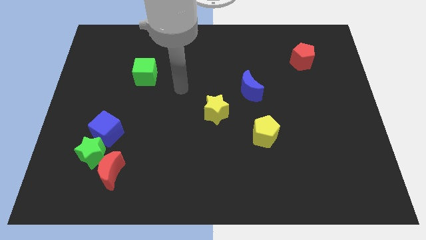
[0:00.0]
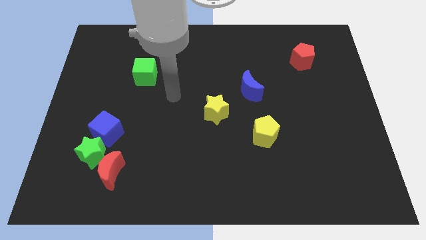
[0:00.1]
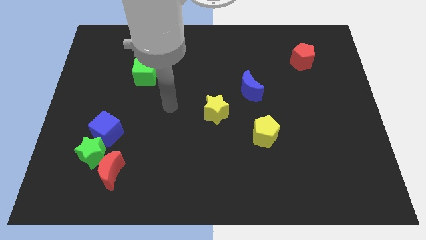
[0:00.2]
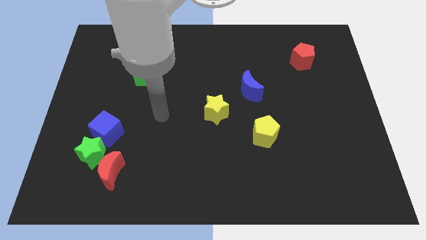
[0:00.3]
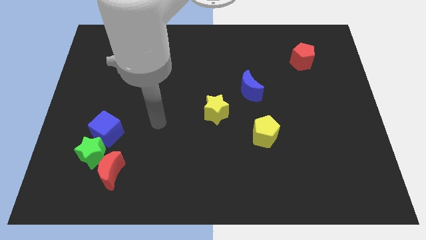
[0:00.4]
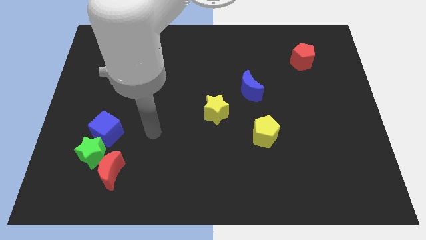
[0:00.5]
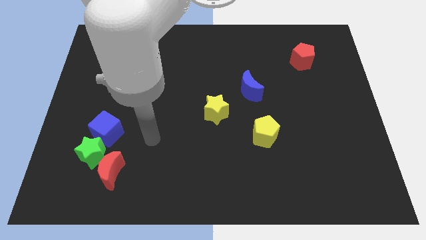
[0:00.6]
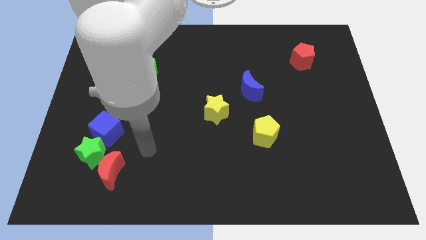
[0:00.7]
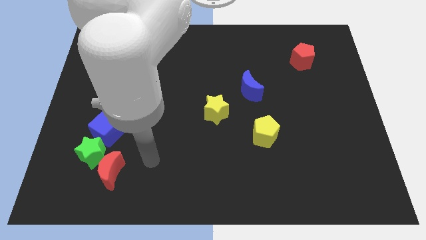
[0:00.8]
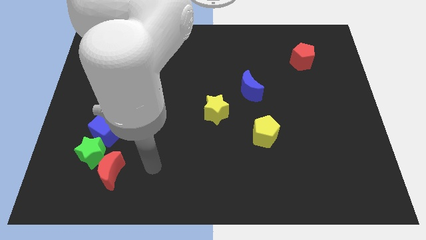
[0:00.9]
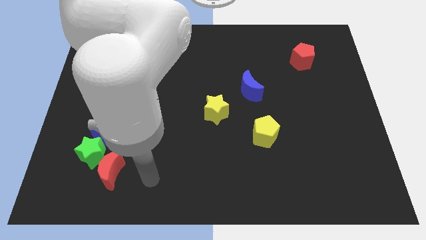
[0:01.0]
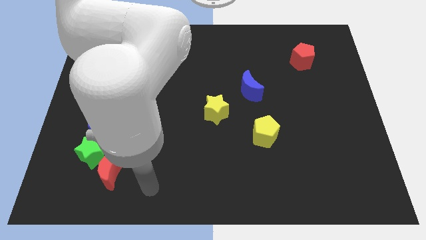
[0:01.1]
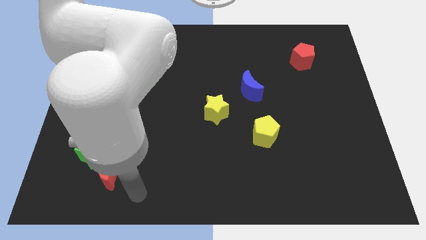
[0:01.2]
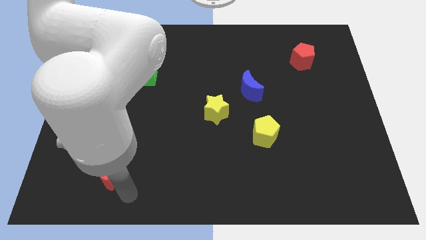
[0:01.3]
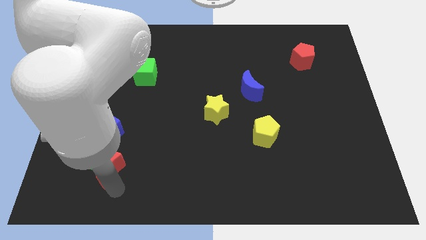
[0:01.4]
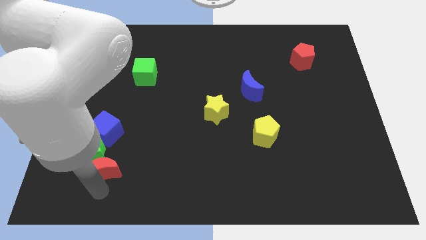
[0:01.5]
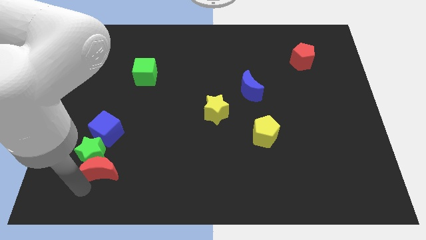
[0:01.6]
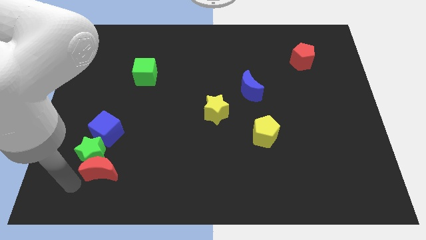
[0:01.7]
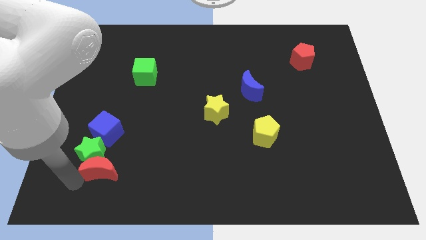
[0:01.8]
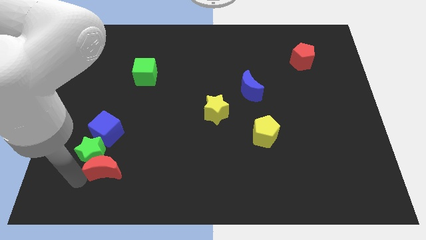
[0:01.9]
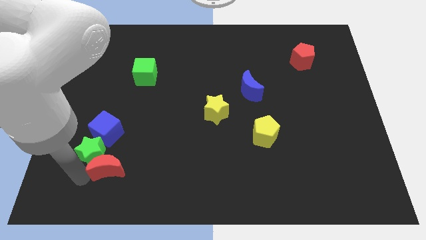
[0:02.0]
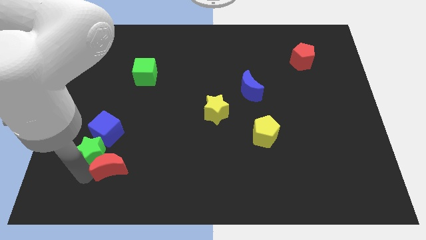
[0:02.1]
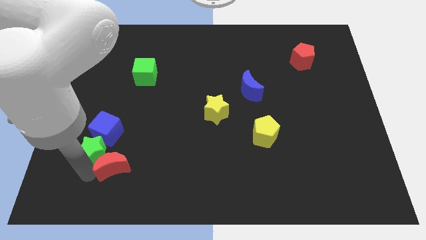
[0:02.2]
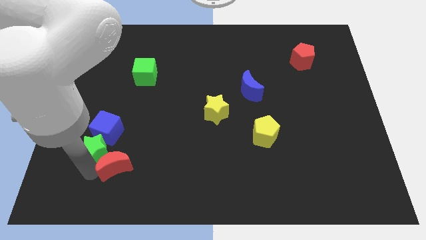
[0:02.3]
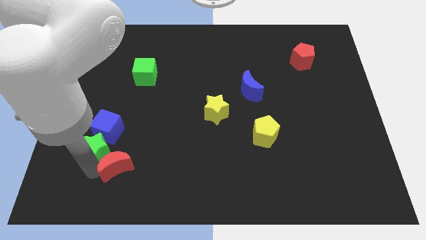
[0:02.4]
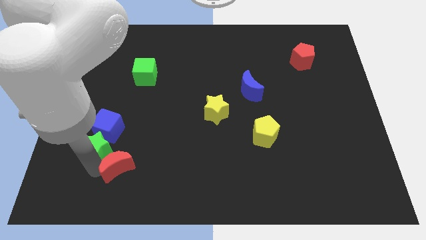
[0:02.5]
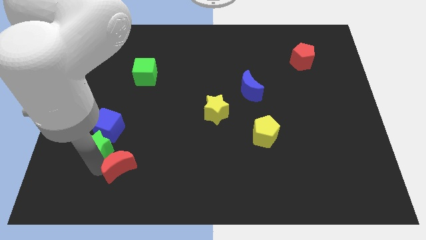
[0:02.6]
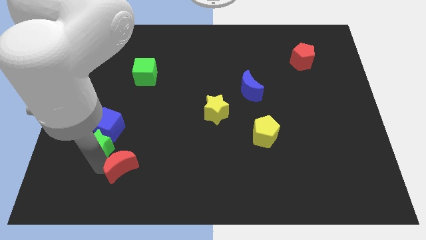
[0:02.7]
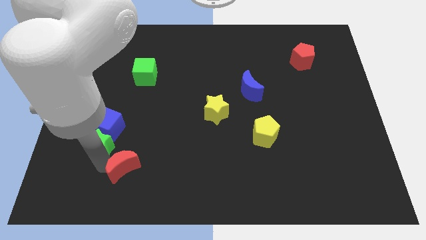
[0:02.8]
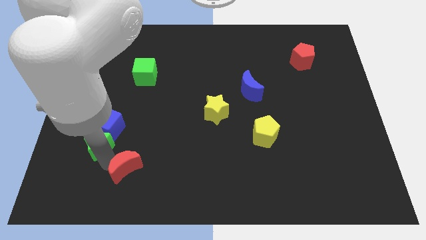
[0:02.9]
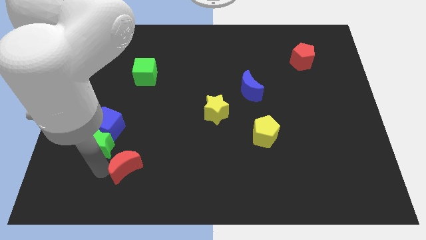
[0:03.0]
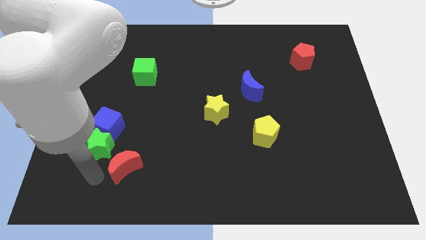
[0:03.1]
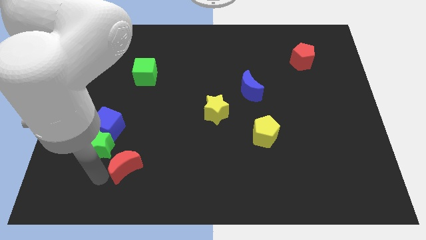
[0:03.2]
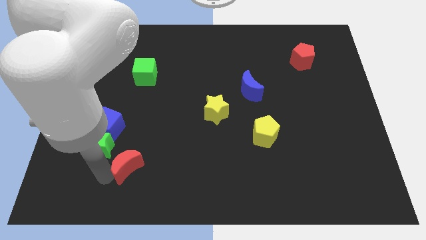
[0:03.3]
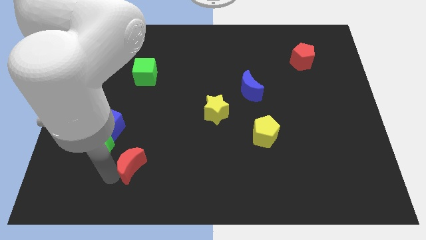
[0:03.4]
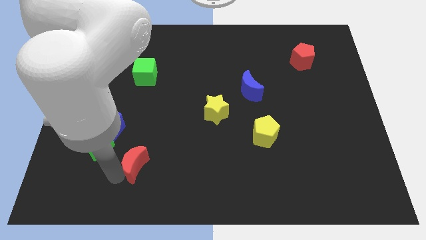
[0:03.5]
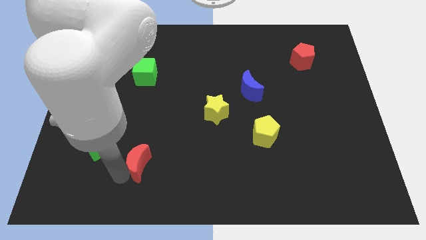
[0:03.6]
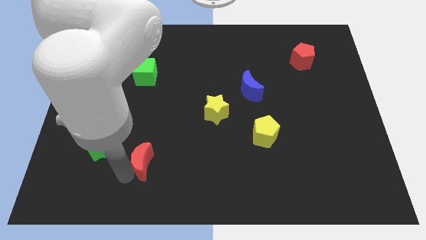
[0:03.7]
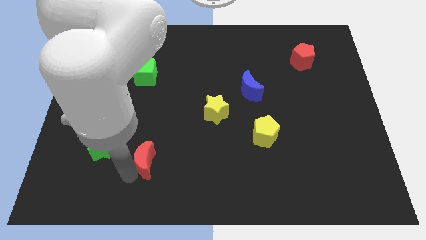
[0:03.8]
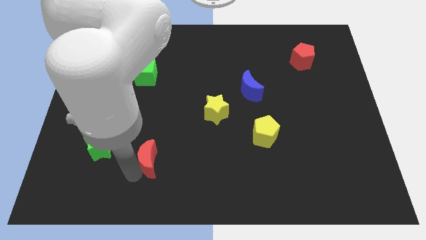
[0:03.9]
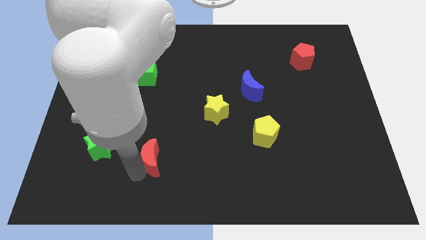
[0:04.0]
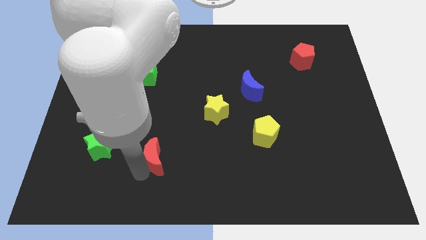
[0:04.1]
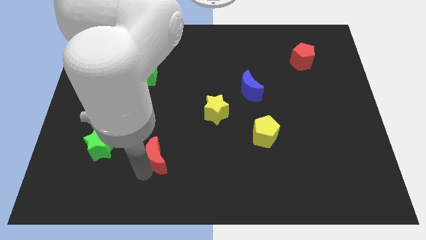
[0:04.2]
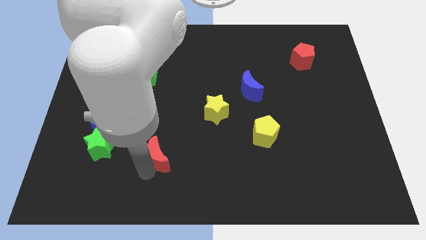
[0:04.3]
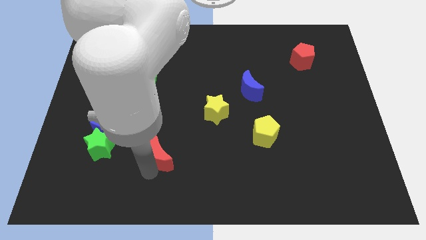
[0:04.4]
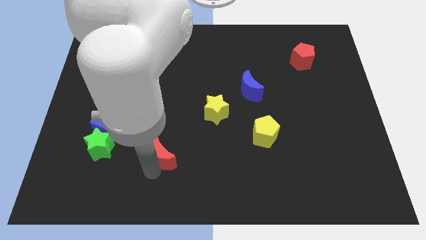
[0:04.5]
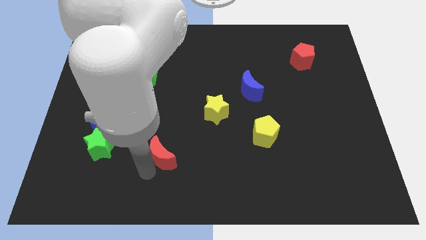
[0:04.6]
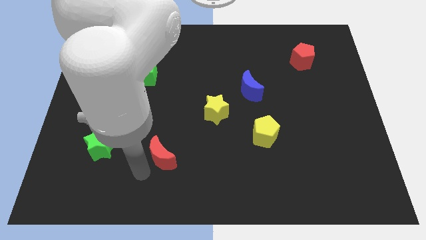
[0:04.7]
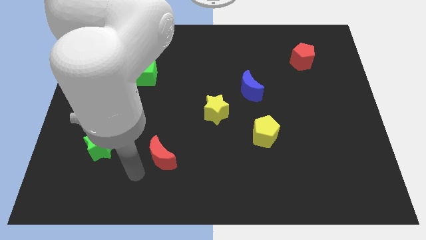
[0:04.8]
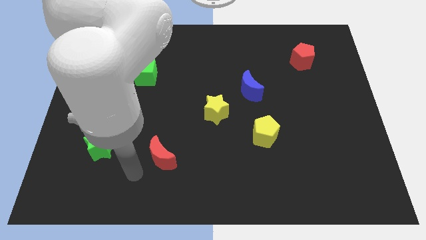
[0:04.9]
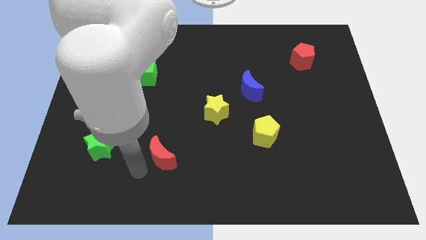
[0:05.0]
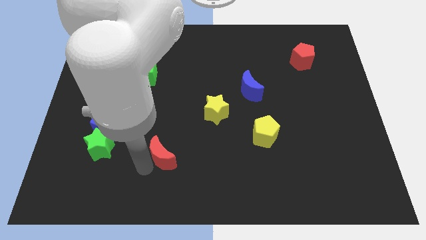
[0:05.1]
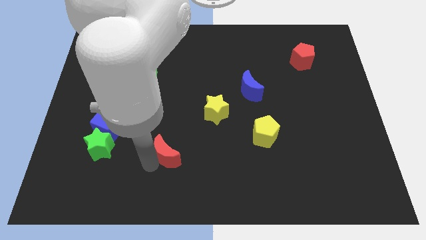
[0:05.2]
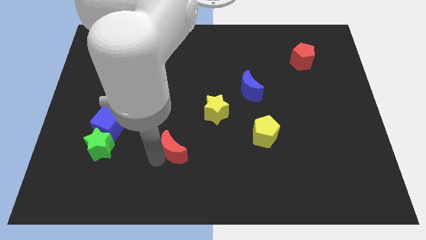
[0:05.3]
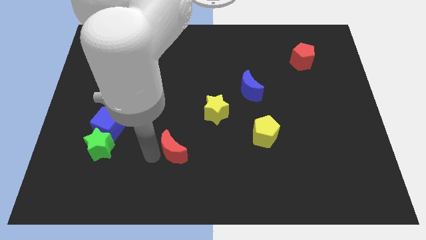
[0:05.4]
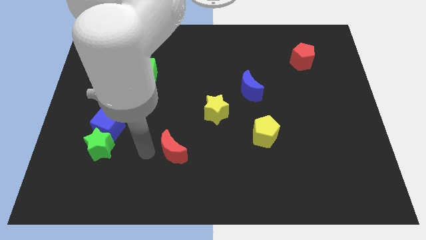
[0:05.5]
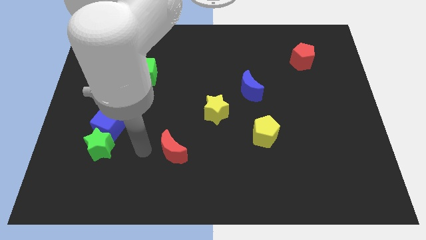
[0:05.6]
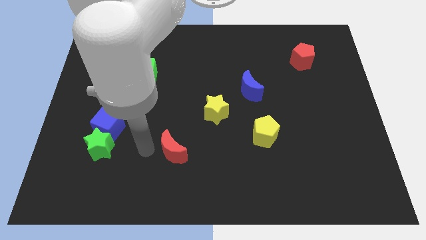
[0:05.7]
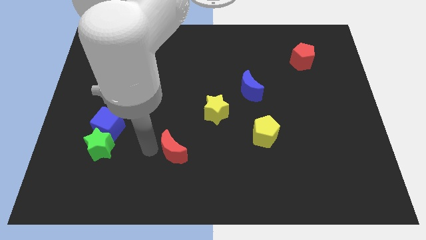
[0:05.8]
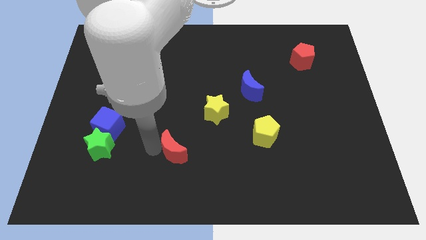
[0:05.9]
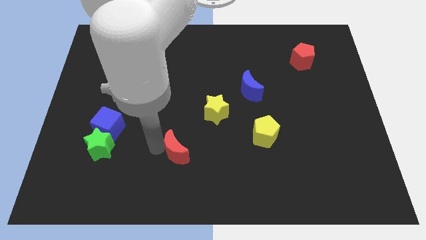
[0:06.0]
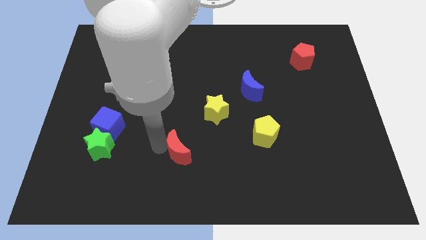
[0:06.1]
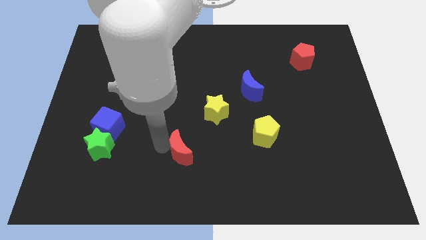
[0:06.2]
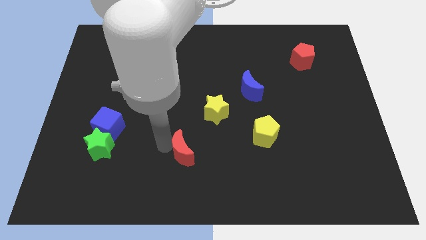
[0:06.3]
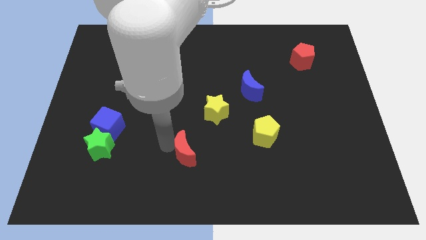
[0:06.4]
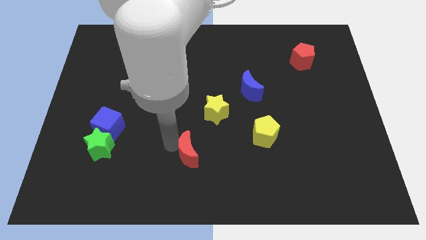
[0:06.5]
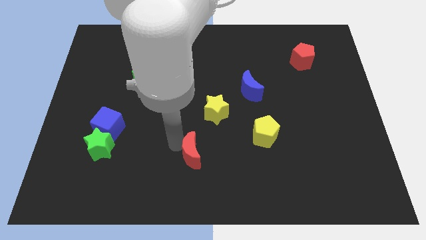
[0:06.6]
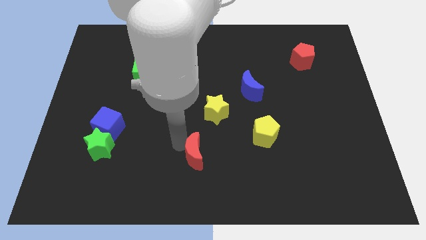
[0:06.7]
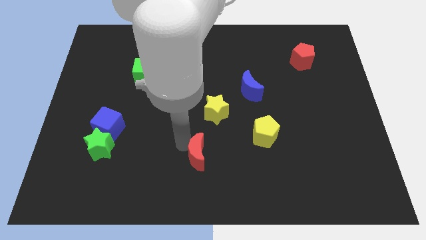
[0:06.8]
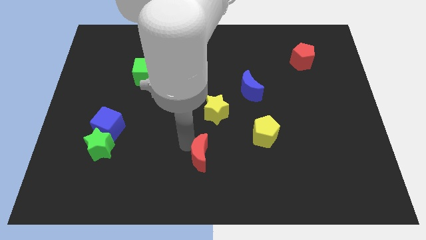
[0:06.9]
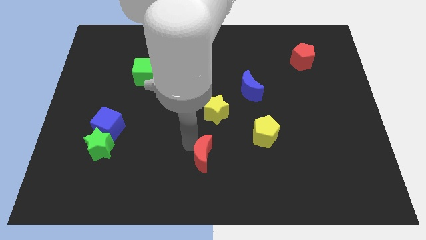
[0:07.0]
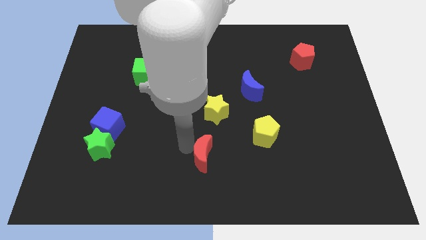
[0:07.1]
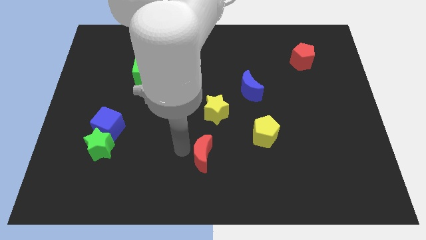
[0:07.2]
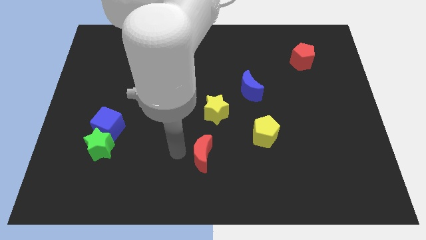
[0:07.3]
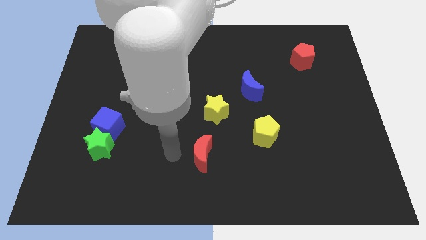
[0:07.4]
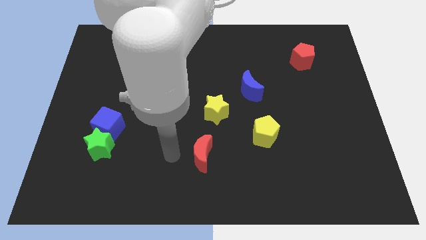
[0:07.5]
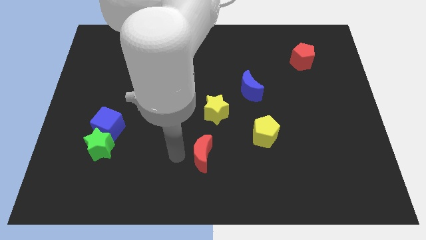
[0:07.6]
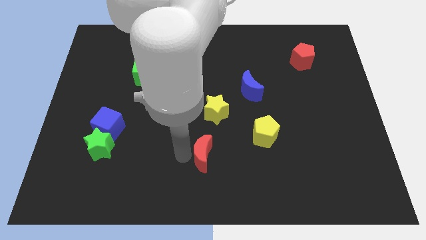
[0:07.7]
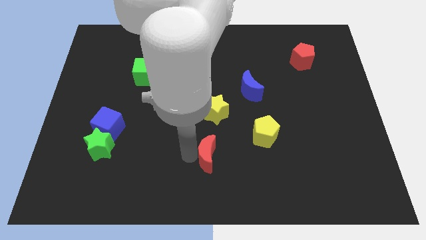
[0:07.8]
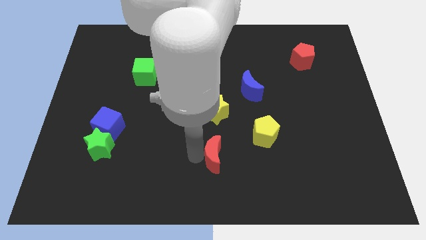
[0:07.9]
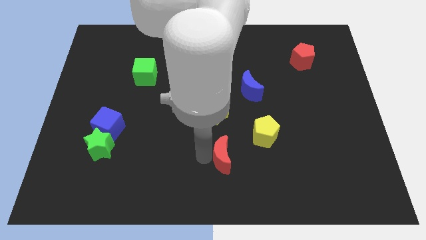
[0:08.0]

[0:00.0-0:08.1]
put the red moon diagonally down and to the left of the yellow pentagon
